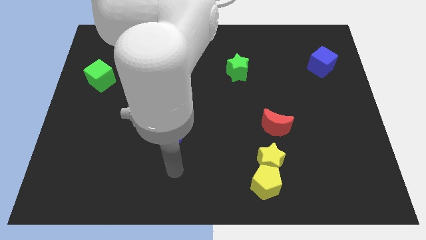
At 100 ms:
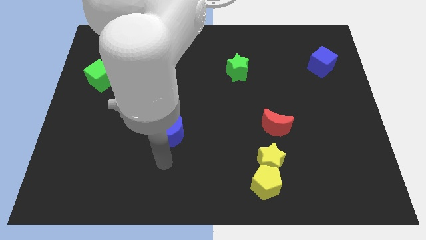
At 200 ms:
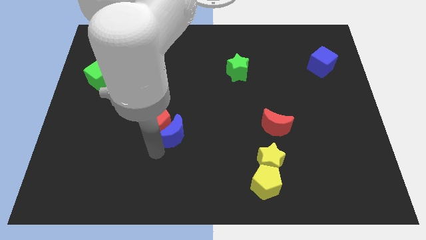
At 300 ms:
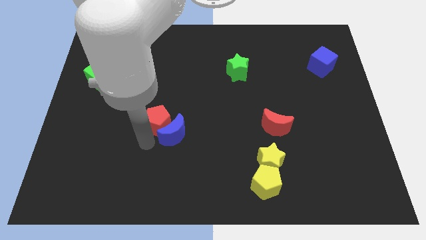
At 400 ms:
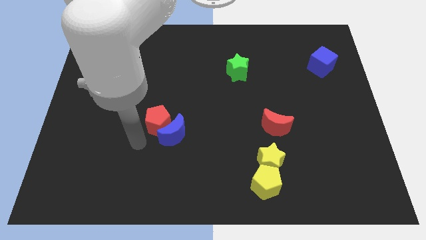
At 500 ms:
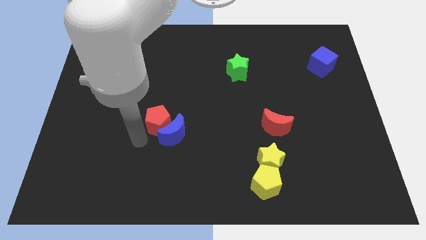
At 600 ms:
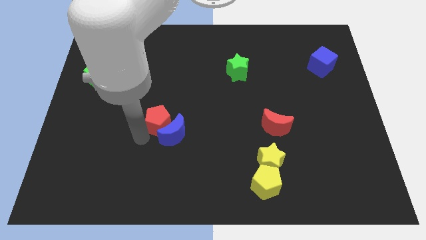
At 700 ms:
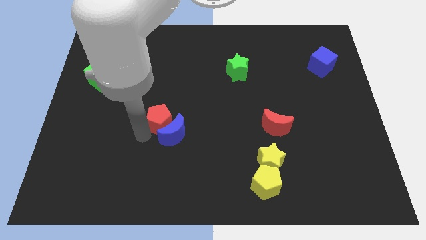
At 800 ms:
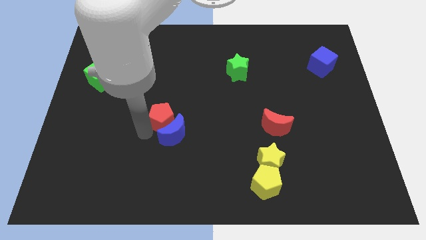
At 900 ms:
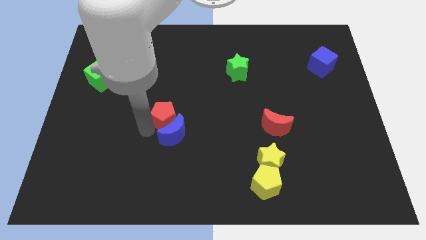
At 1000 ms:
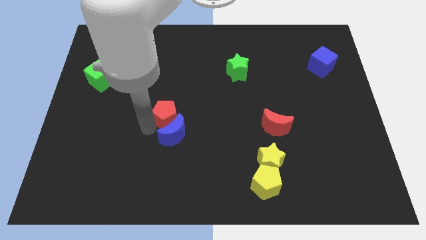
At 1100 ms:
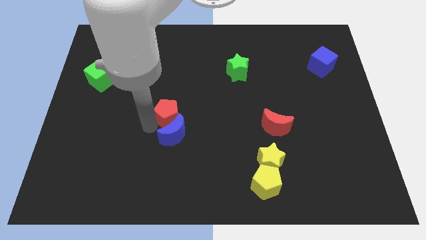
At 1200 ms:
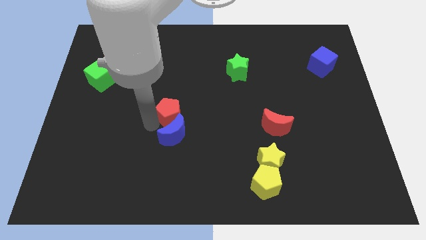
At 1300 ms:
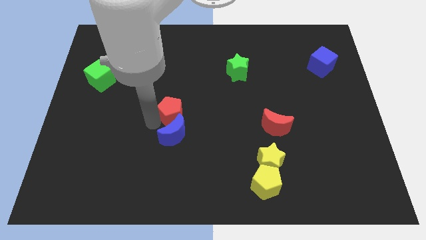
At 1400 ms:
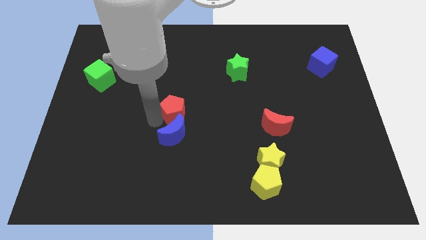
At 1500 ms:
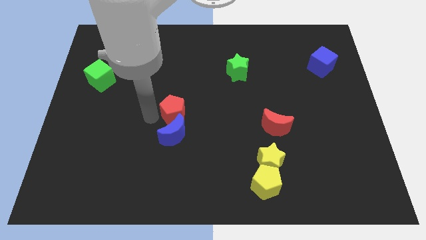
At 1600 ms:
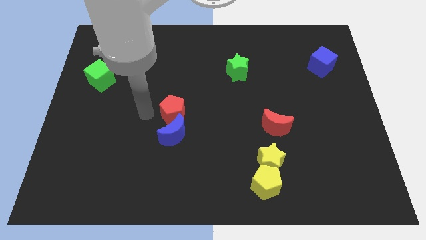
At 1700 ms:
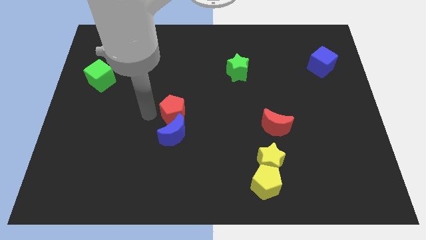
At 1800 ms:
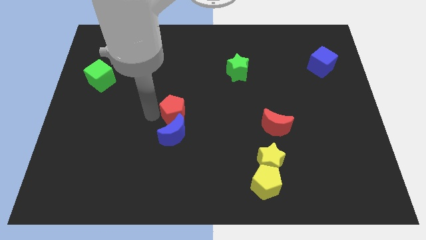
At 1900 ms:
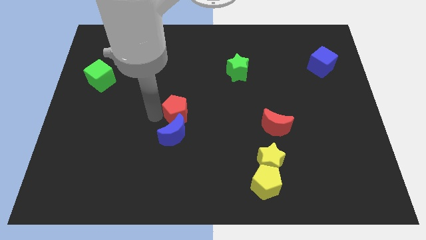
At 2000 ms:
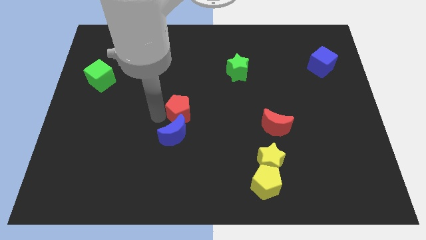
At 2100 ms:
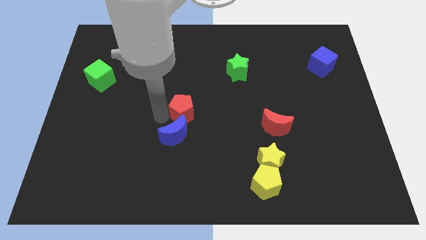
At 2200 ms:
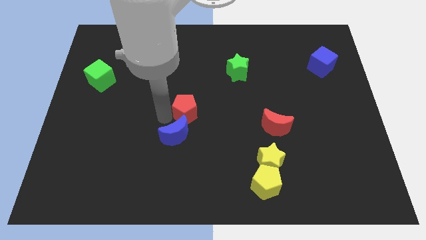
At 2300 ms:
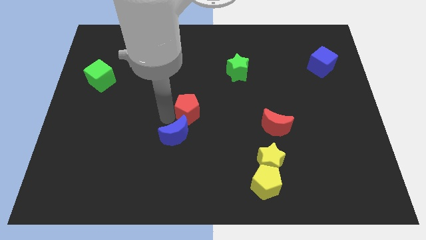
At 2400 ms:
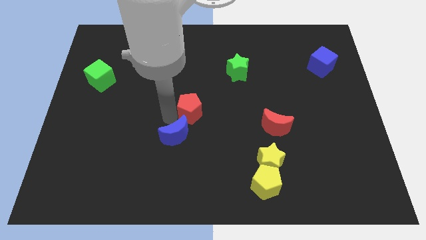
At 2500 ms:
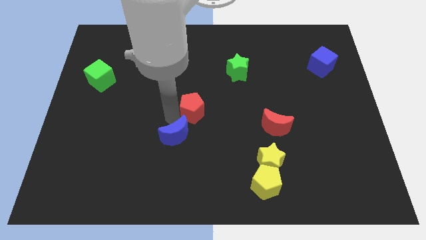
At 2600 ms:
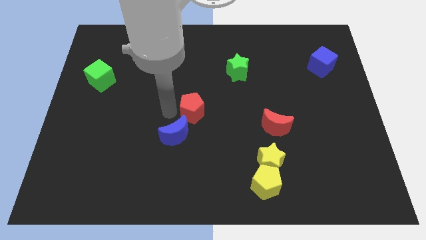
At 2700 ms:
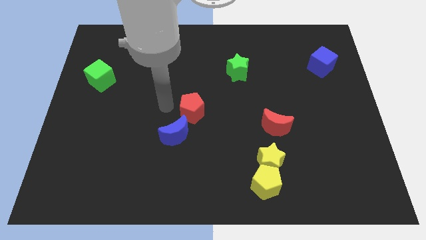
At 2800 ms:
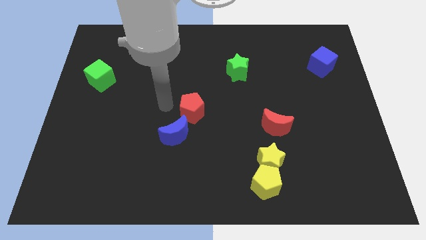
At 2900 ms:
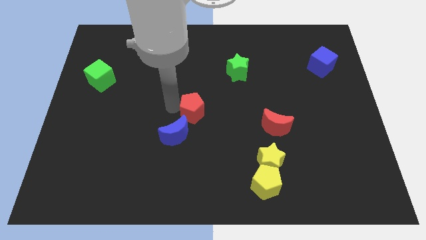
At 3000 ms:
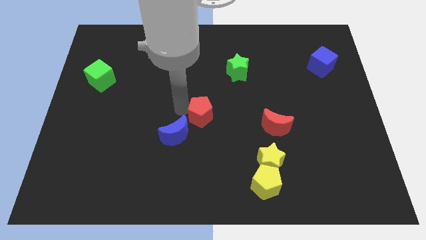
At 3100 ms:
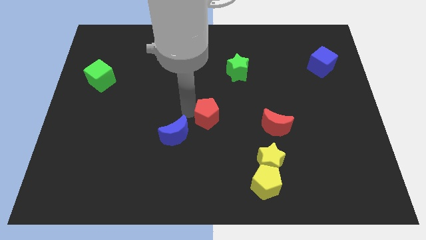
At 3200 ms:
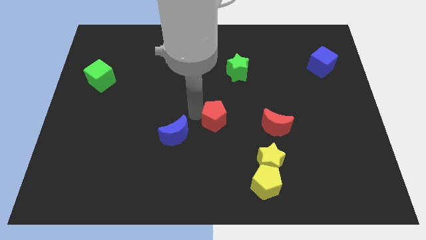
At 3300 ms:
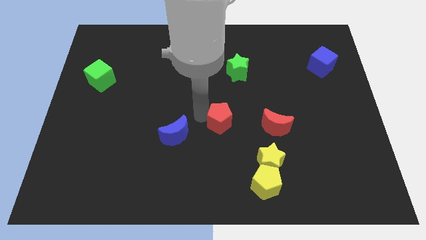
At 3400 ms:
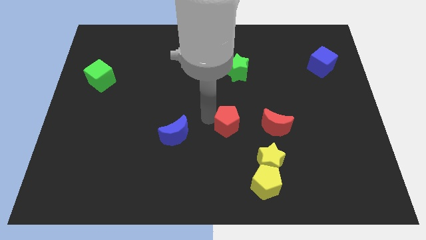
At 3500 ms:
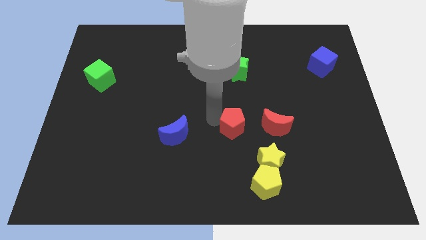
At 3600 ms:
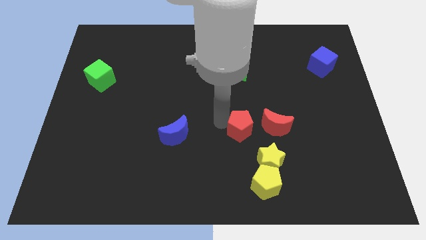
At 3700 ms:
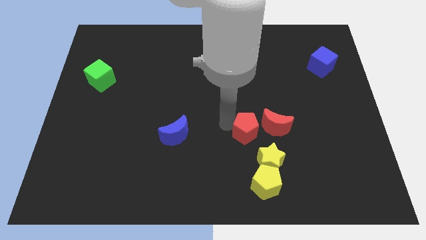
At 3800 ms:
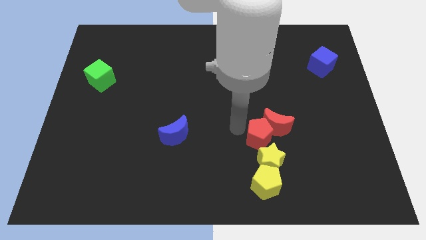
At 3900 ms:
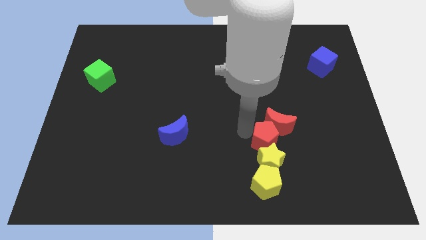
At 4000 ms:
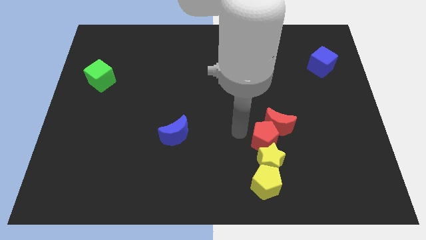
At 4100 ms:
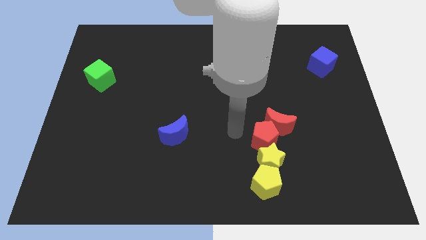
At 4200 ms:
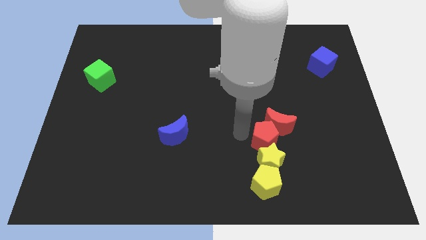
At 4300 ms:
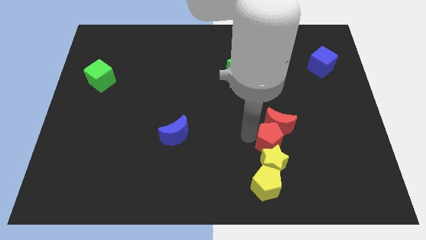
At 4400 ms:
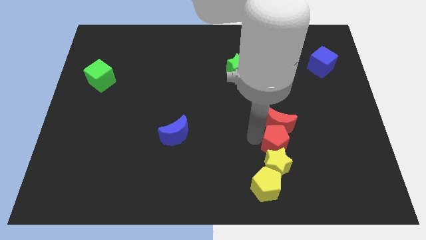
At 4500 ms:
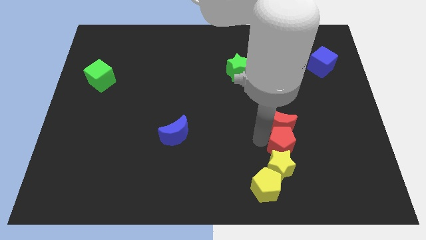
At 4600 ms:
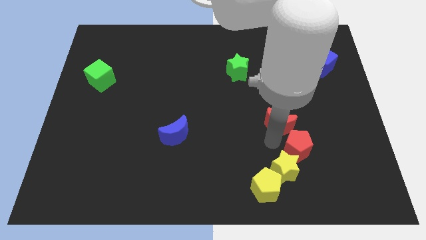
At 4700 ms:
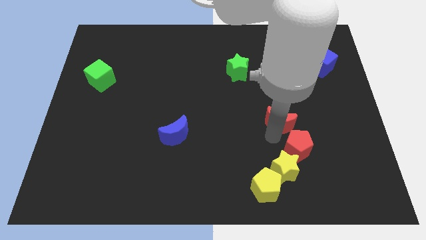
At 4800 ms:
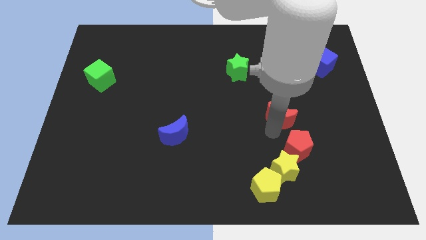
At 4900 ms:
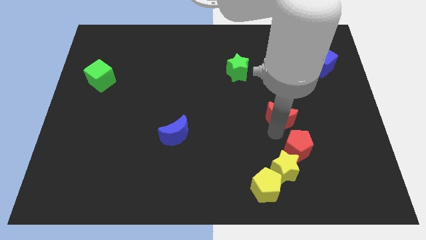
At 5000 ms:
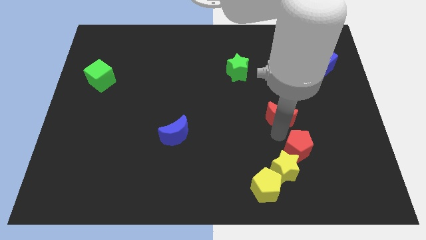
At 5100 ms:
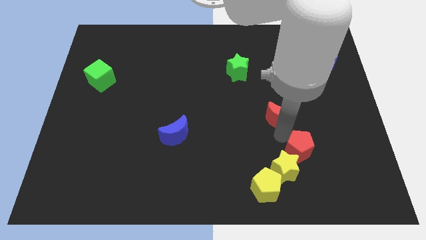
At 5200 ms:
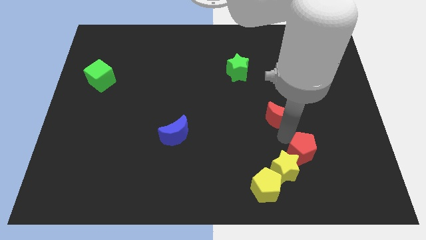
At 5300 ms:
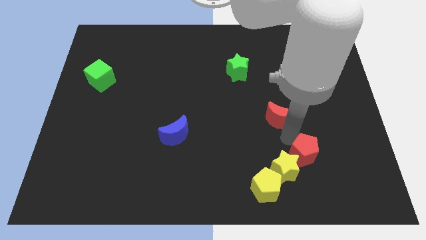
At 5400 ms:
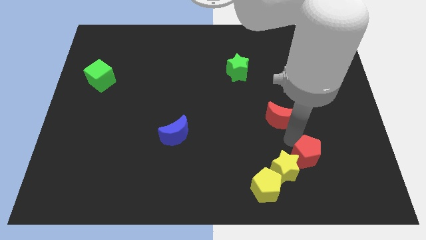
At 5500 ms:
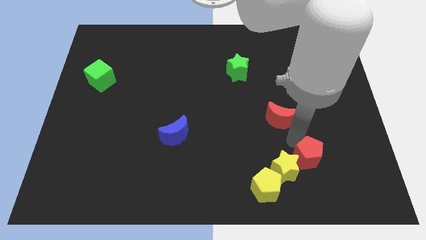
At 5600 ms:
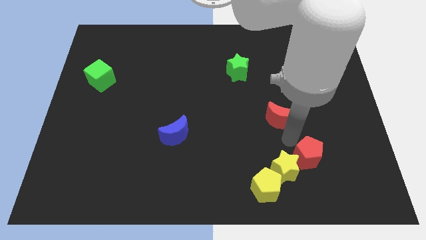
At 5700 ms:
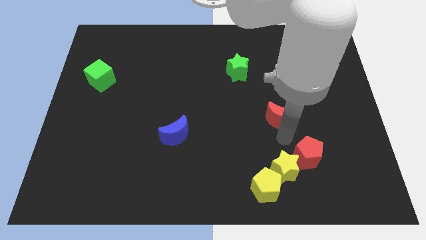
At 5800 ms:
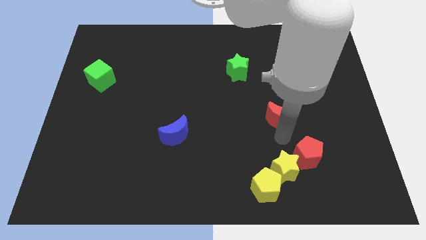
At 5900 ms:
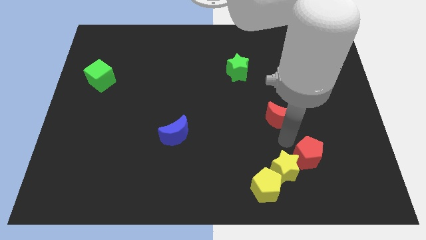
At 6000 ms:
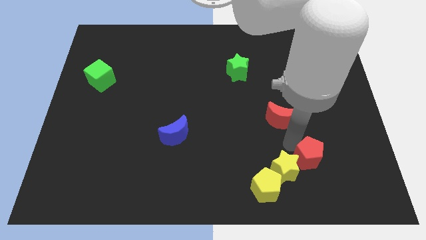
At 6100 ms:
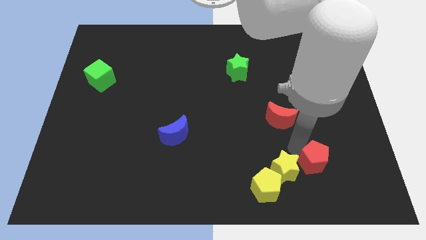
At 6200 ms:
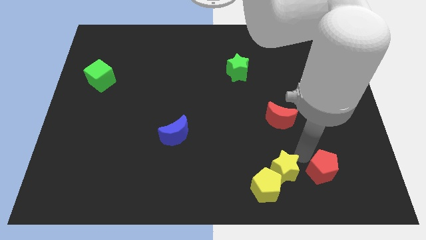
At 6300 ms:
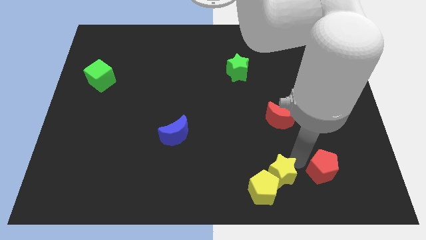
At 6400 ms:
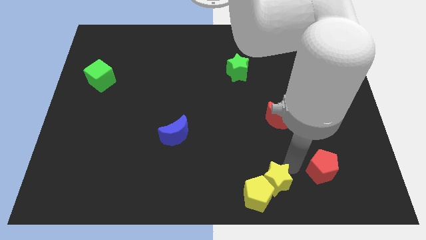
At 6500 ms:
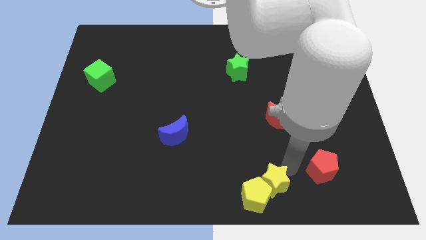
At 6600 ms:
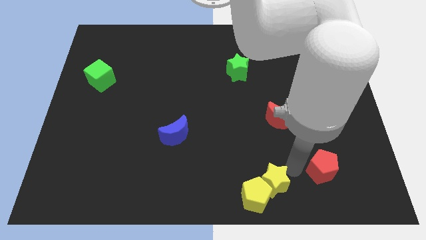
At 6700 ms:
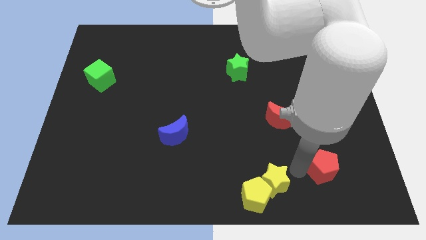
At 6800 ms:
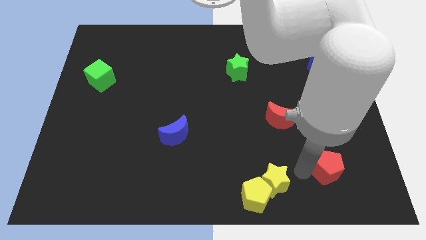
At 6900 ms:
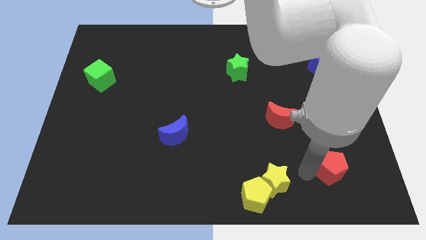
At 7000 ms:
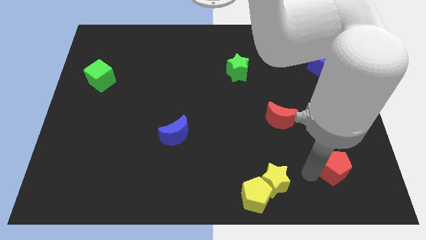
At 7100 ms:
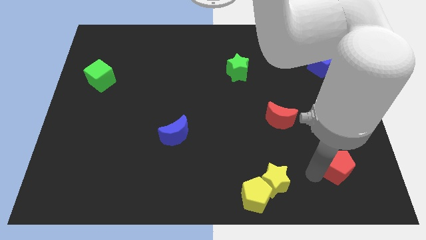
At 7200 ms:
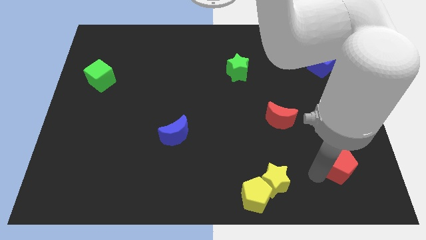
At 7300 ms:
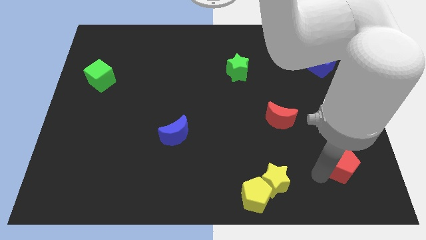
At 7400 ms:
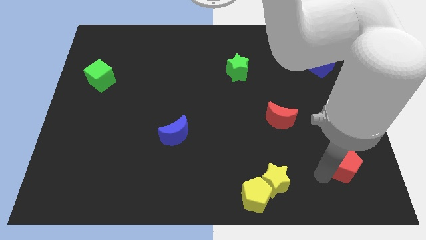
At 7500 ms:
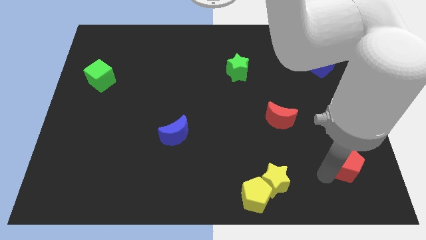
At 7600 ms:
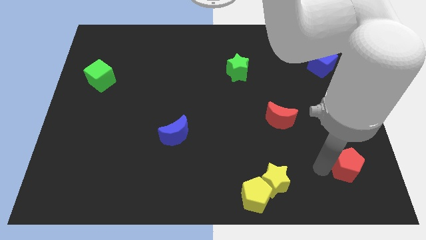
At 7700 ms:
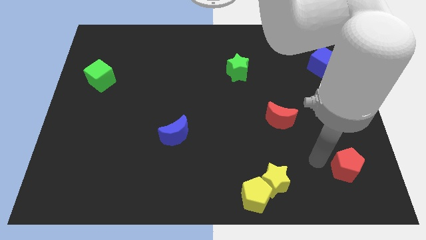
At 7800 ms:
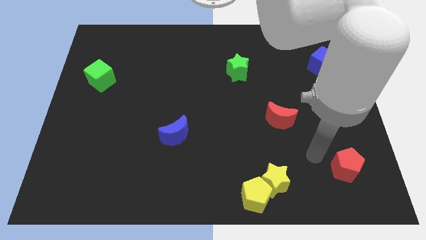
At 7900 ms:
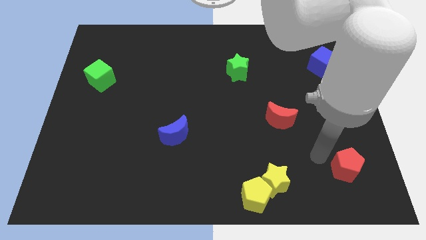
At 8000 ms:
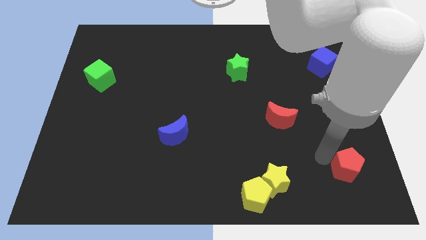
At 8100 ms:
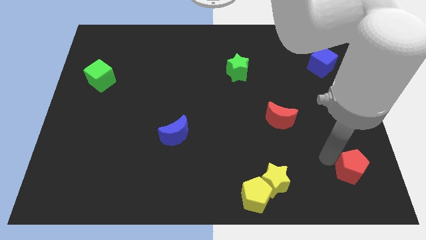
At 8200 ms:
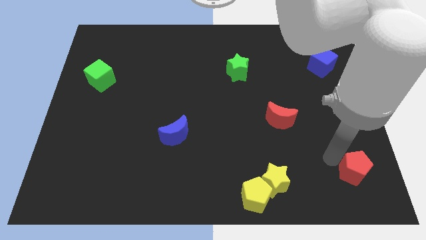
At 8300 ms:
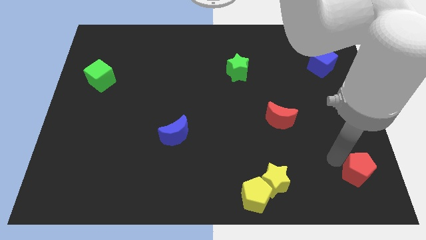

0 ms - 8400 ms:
slide the red pentagon to the bottom right of the board
